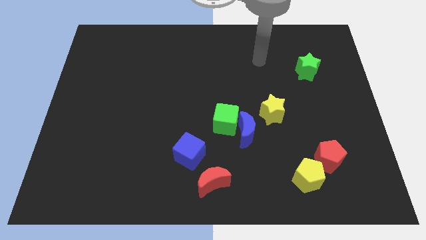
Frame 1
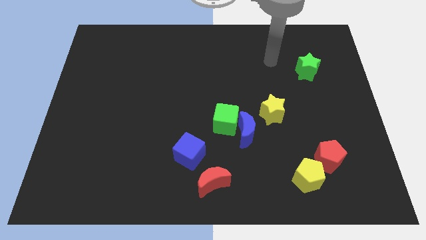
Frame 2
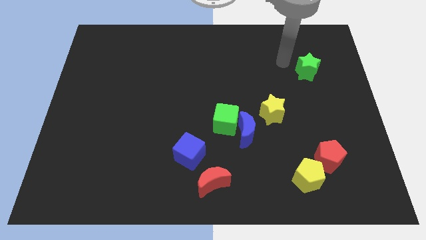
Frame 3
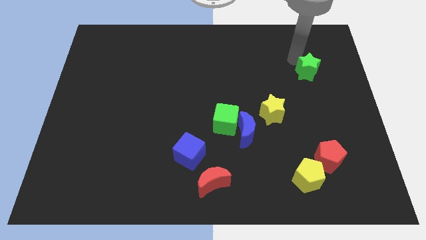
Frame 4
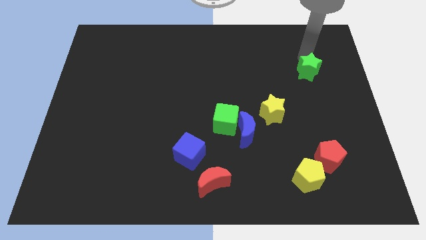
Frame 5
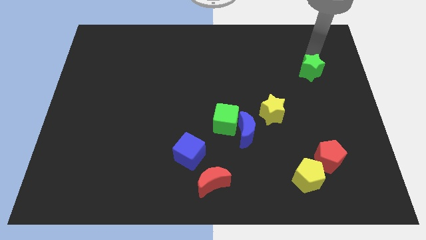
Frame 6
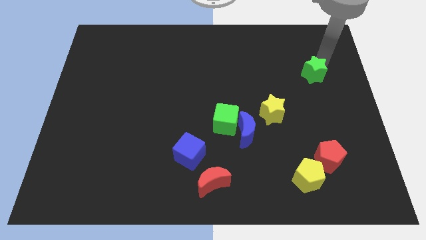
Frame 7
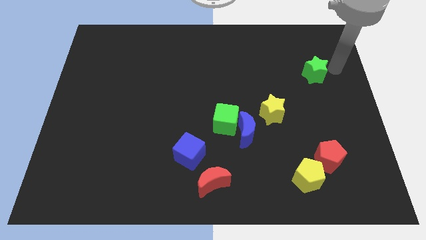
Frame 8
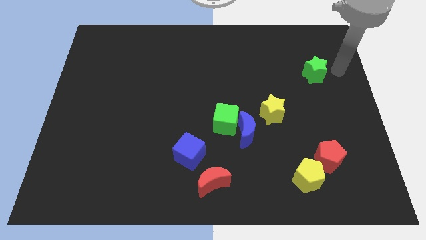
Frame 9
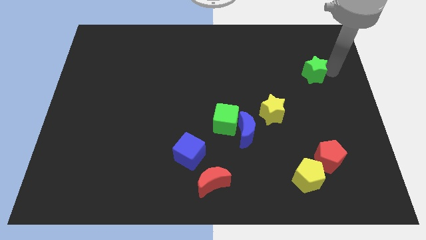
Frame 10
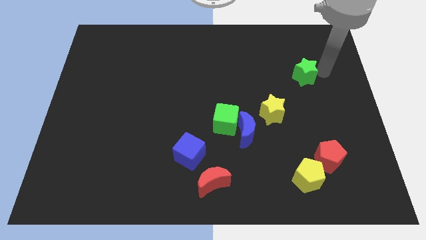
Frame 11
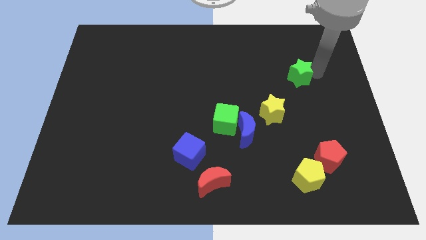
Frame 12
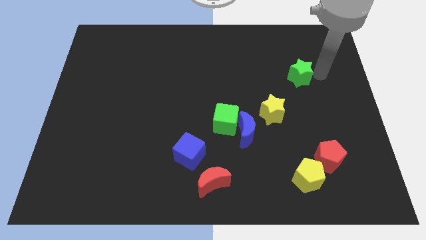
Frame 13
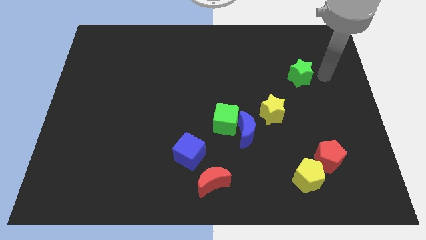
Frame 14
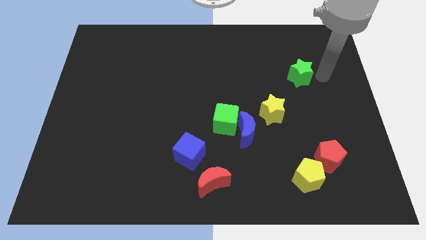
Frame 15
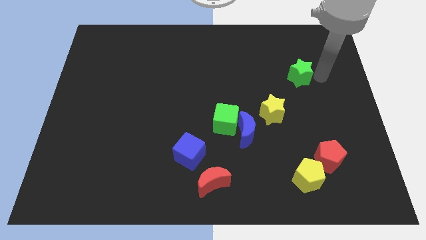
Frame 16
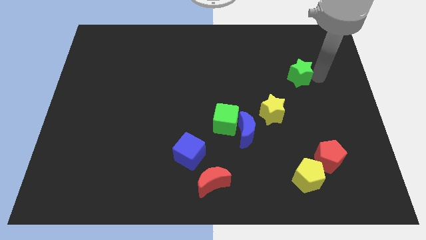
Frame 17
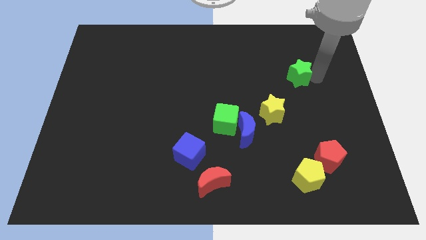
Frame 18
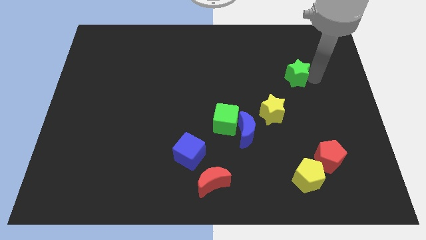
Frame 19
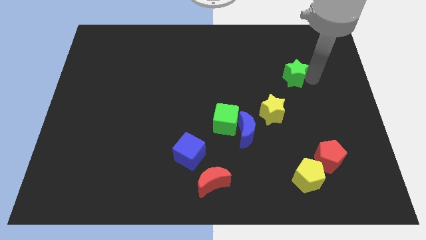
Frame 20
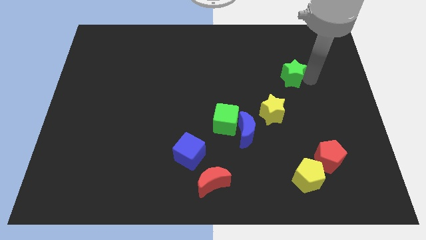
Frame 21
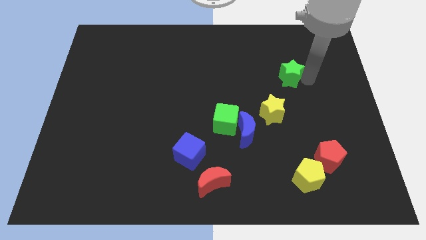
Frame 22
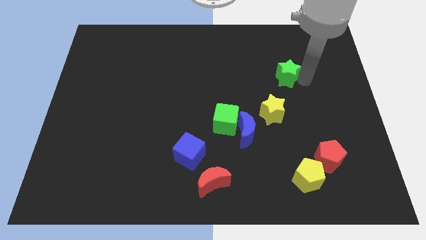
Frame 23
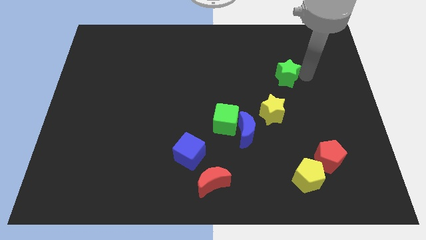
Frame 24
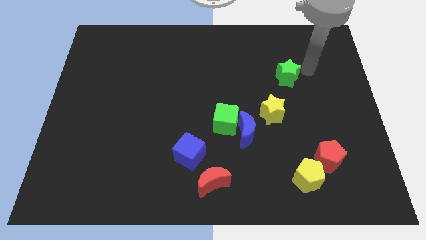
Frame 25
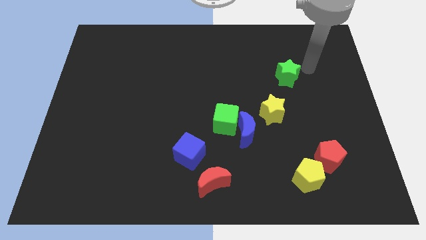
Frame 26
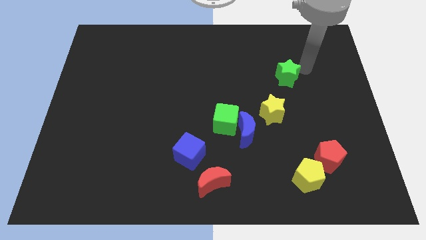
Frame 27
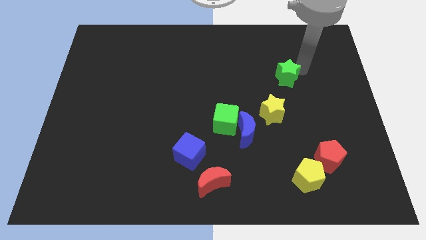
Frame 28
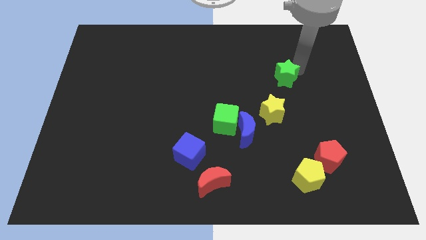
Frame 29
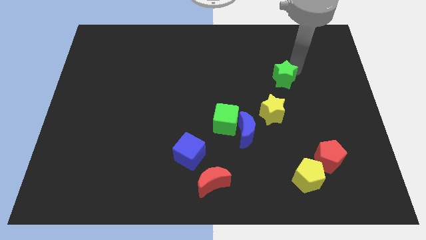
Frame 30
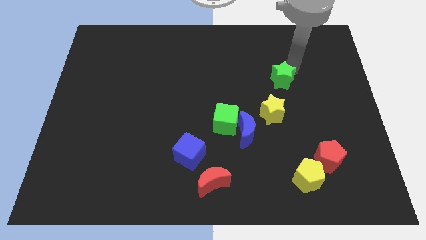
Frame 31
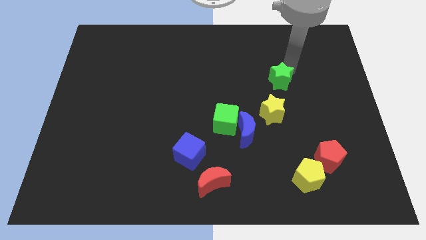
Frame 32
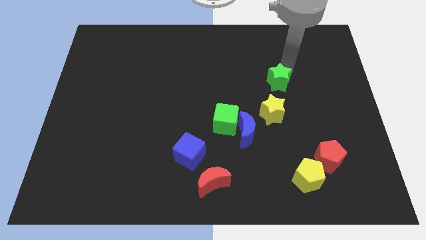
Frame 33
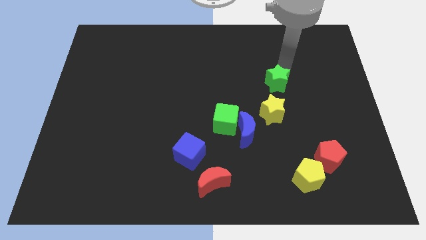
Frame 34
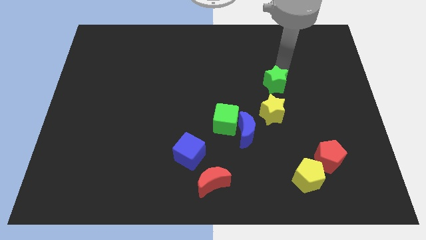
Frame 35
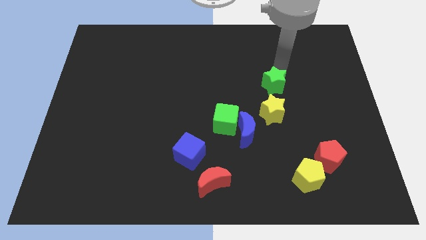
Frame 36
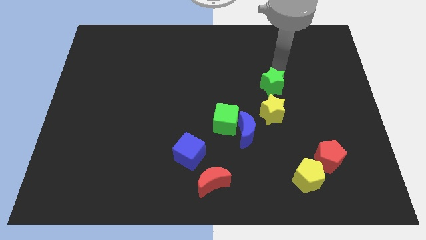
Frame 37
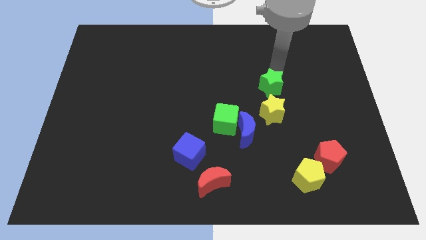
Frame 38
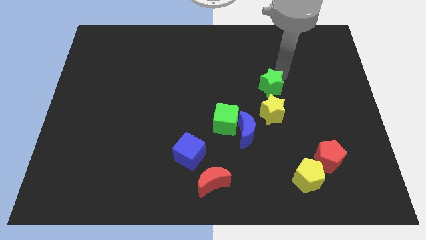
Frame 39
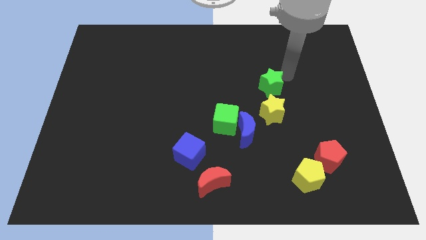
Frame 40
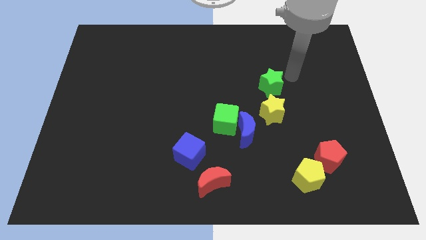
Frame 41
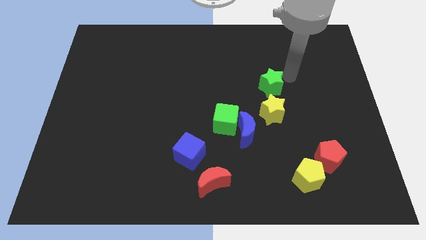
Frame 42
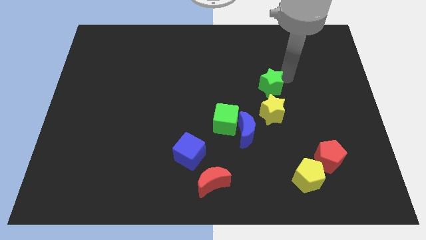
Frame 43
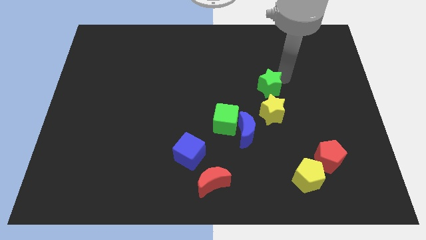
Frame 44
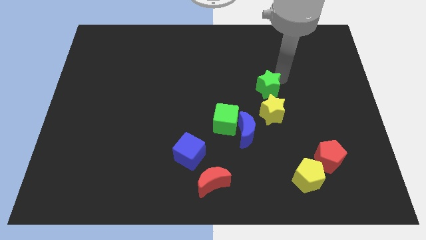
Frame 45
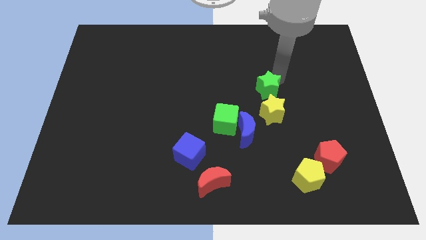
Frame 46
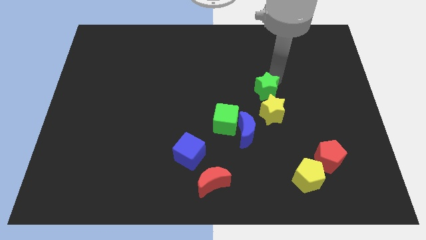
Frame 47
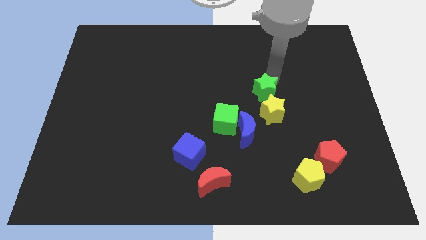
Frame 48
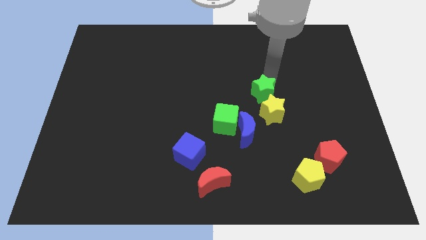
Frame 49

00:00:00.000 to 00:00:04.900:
push the green star above the blue moon

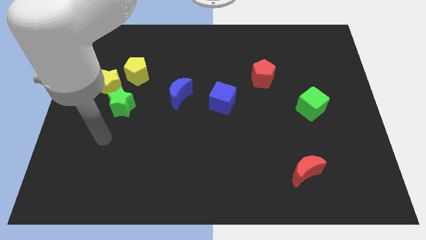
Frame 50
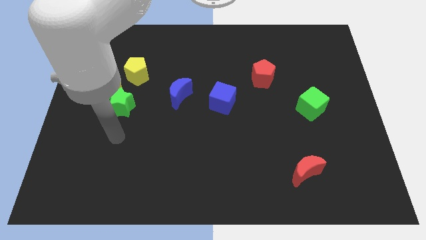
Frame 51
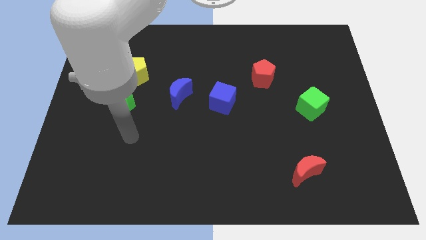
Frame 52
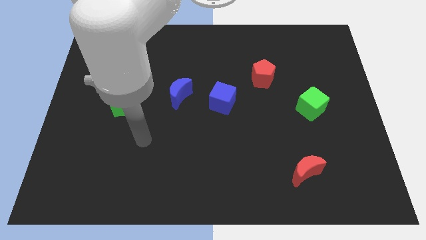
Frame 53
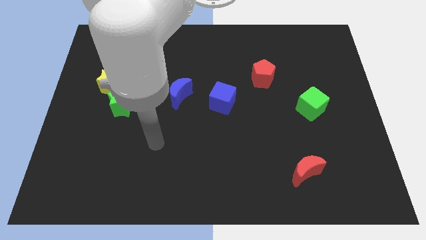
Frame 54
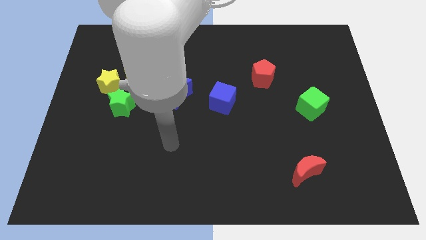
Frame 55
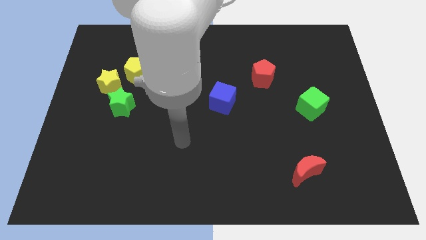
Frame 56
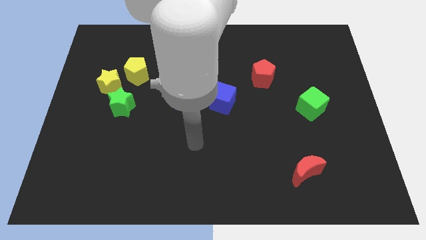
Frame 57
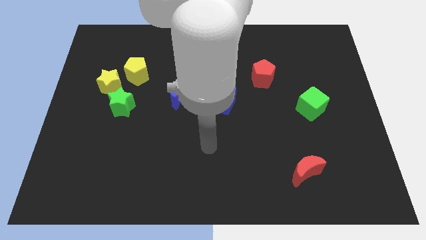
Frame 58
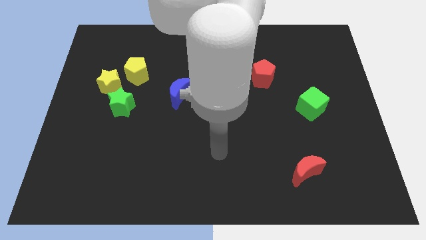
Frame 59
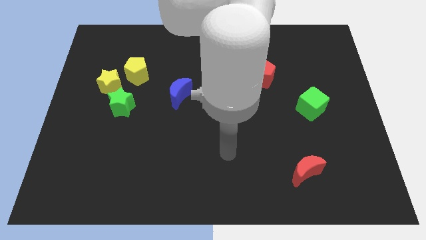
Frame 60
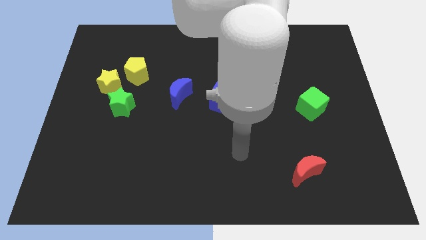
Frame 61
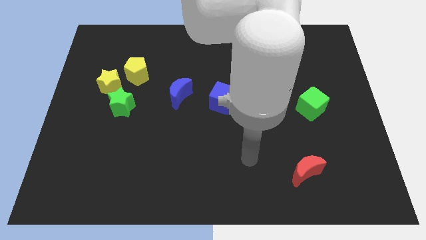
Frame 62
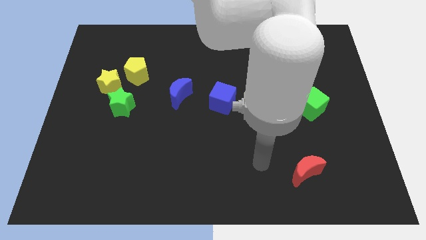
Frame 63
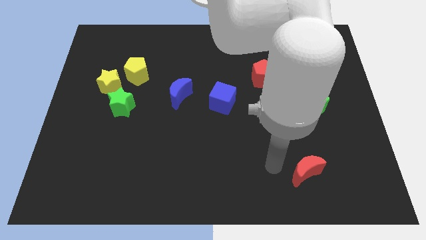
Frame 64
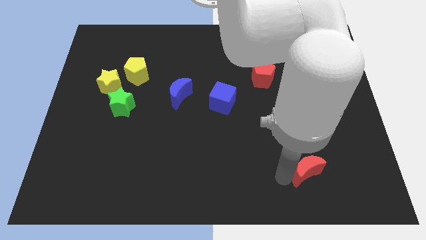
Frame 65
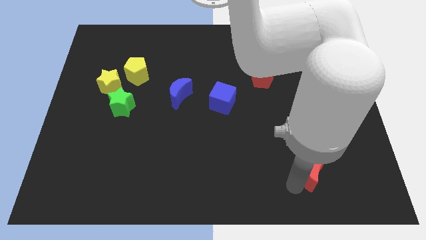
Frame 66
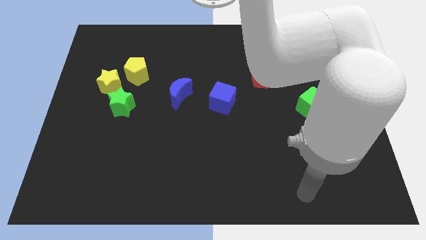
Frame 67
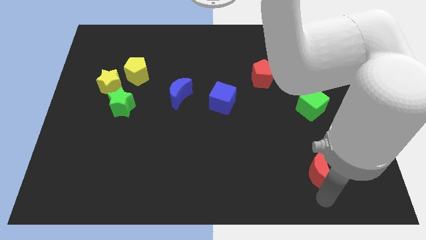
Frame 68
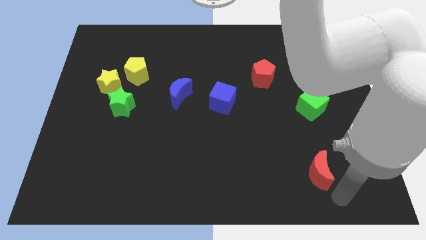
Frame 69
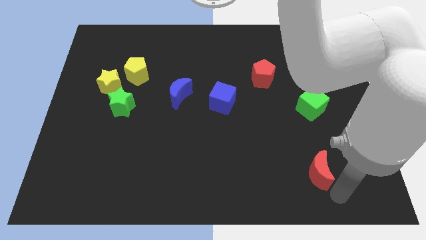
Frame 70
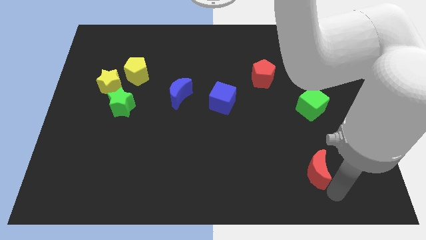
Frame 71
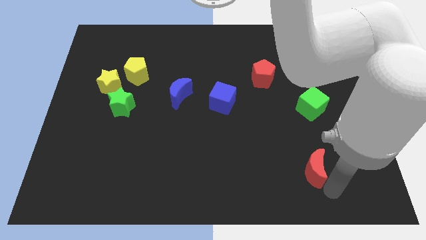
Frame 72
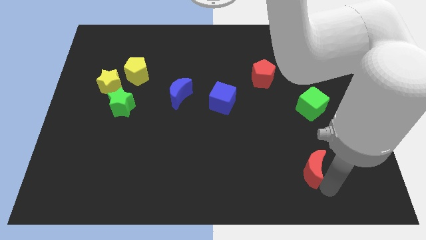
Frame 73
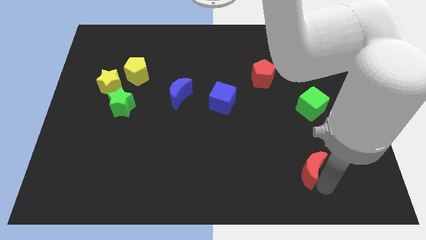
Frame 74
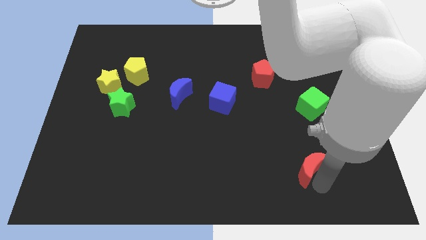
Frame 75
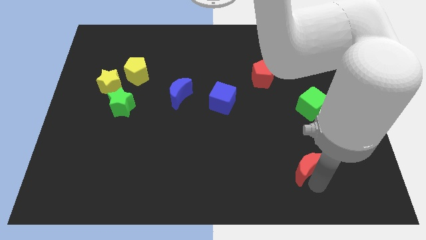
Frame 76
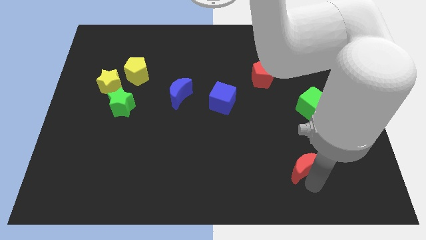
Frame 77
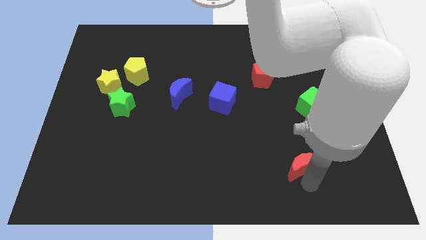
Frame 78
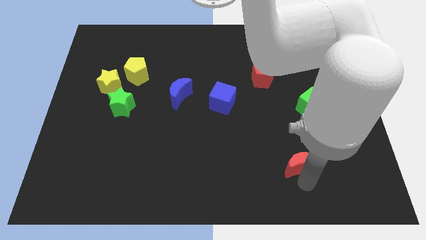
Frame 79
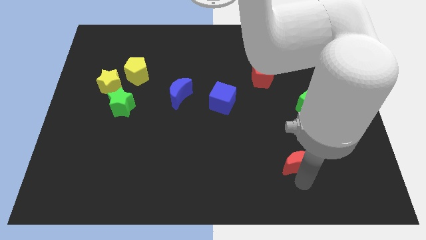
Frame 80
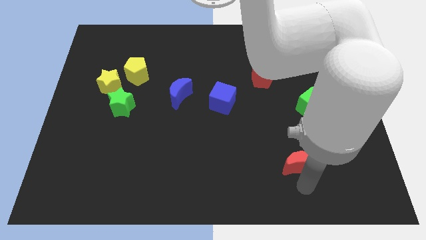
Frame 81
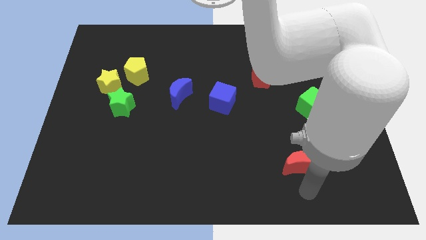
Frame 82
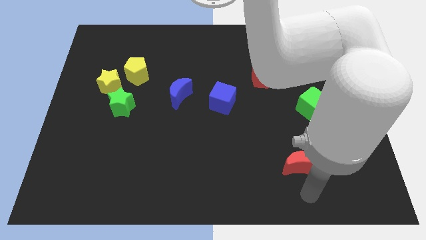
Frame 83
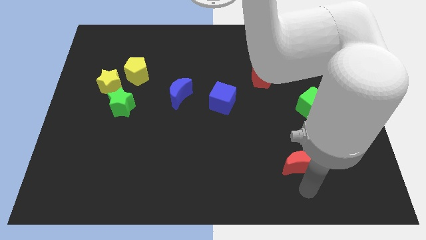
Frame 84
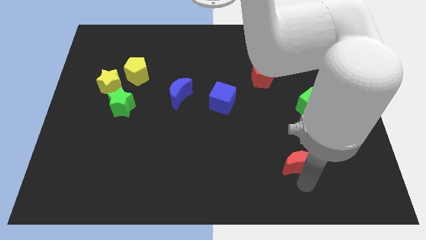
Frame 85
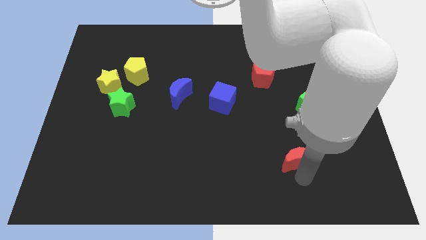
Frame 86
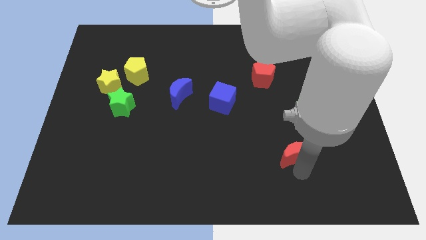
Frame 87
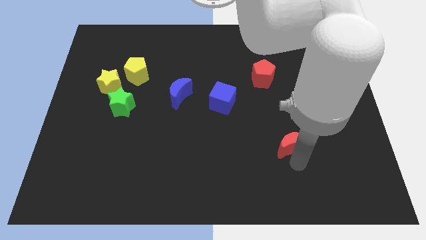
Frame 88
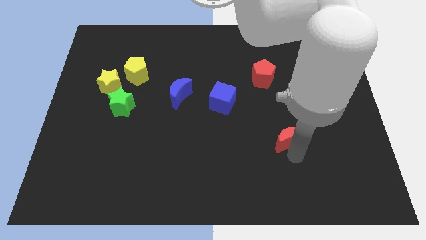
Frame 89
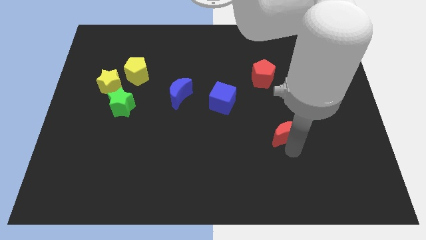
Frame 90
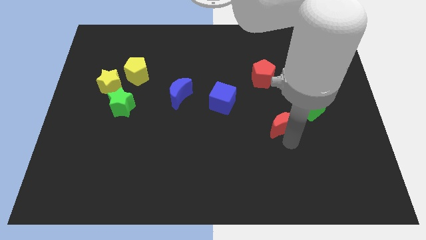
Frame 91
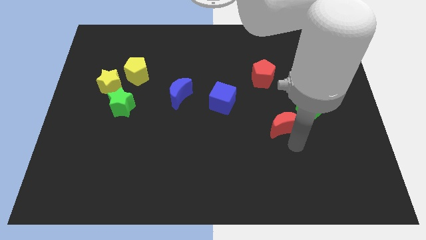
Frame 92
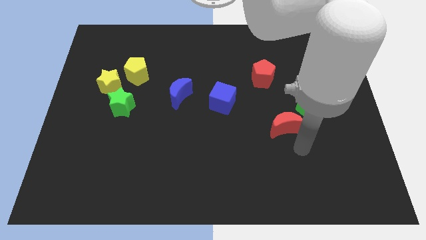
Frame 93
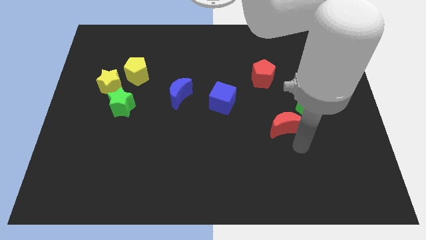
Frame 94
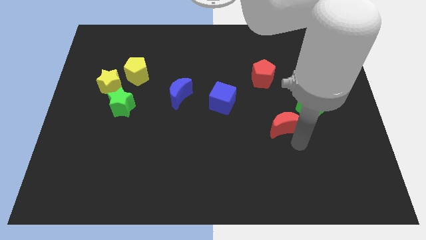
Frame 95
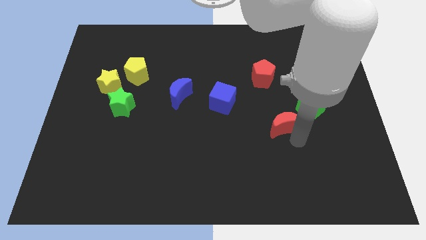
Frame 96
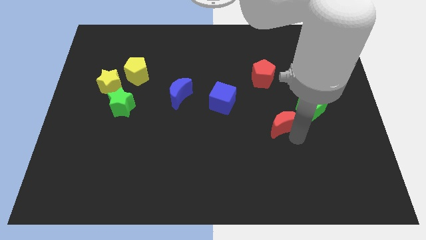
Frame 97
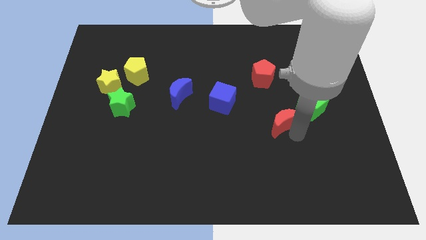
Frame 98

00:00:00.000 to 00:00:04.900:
move the red moon just left of the green cube
